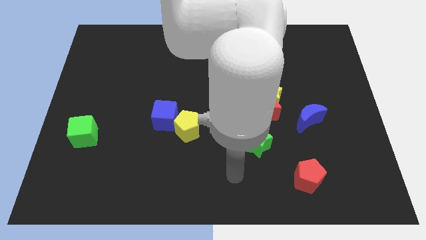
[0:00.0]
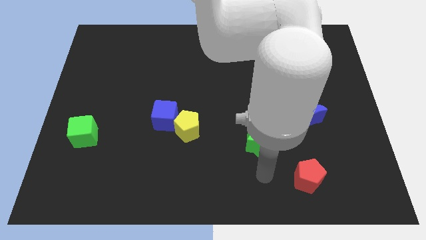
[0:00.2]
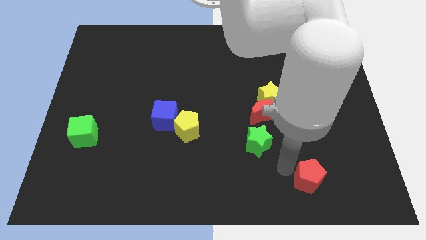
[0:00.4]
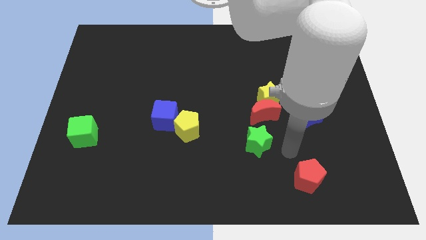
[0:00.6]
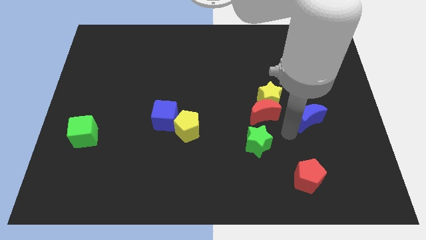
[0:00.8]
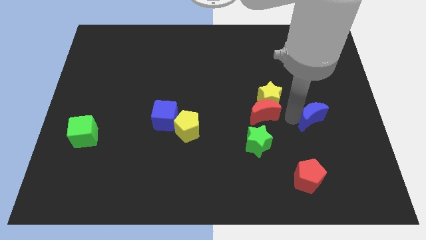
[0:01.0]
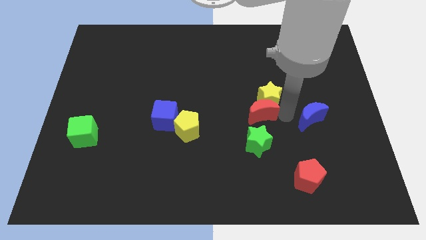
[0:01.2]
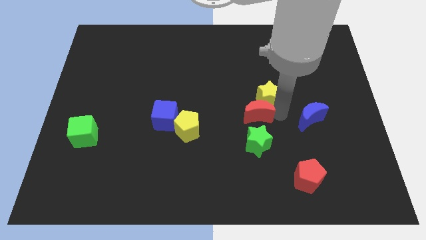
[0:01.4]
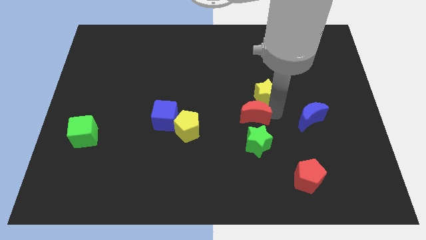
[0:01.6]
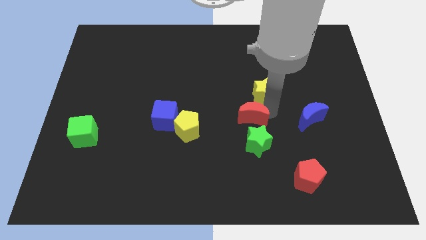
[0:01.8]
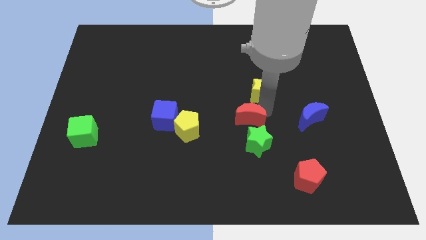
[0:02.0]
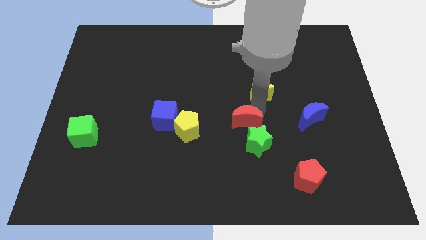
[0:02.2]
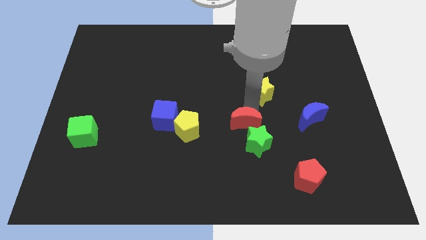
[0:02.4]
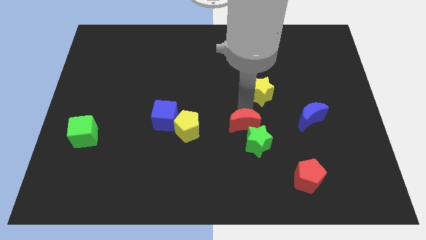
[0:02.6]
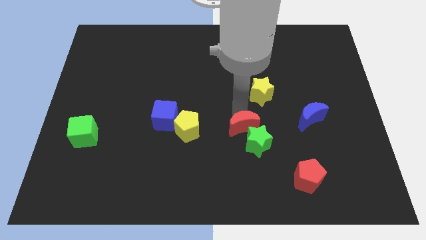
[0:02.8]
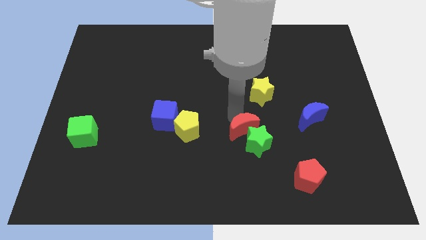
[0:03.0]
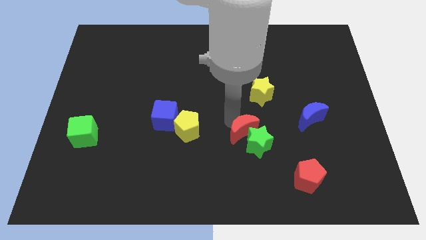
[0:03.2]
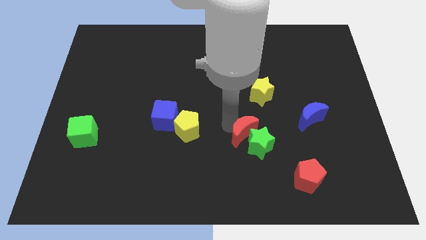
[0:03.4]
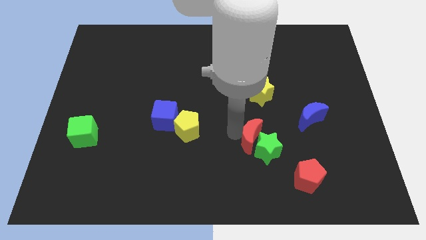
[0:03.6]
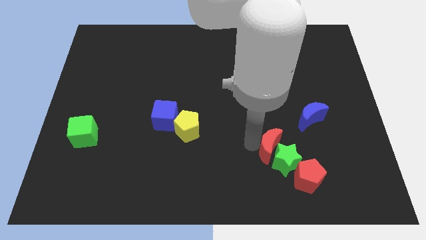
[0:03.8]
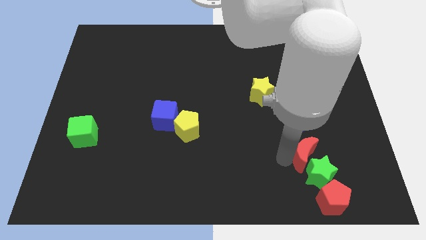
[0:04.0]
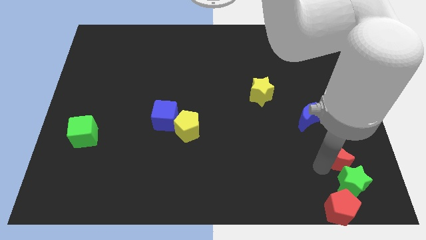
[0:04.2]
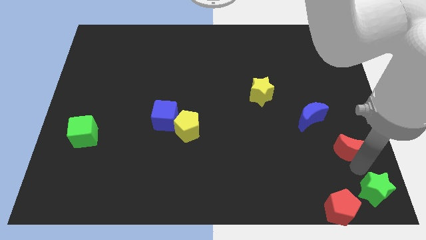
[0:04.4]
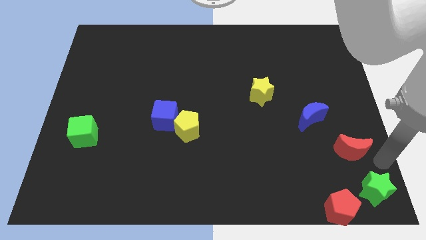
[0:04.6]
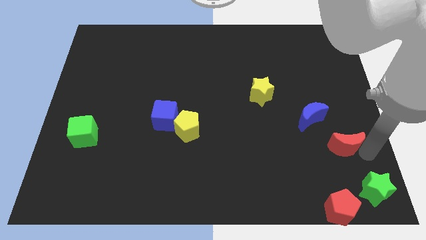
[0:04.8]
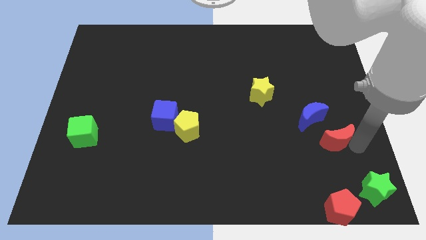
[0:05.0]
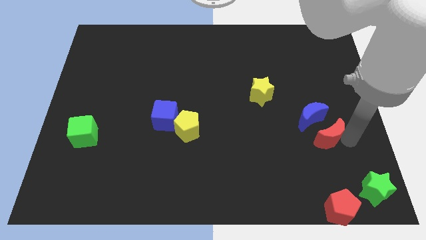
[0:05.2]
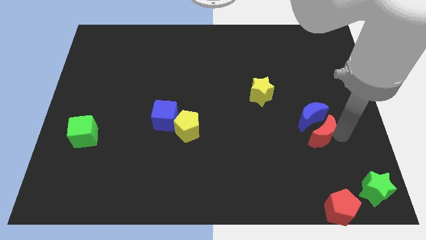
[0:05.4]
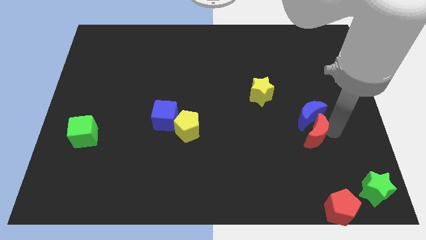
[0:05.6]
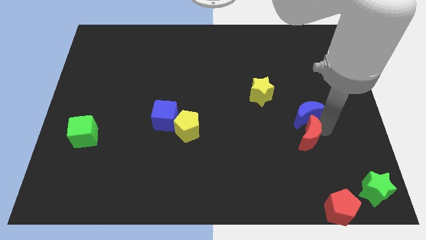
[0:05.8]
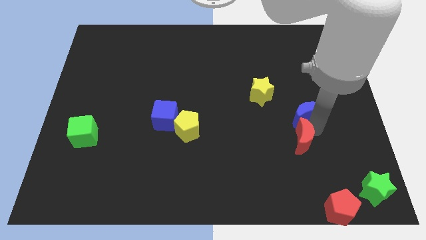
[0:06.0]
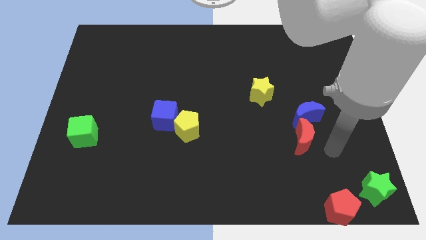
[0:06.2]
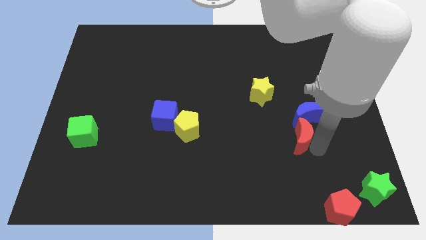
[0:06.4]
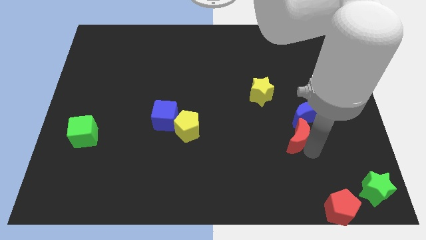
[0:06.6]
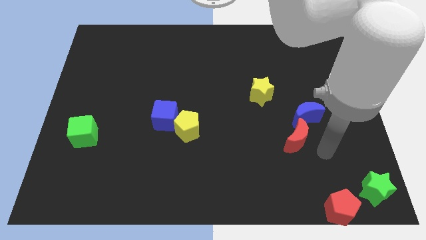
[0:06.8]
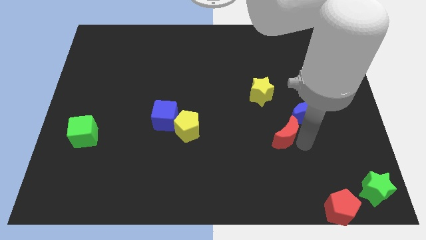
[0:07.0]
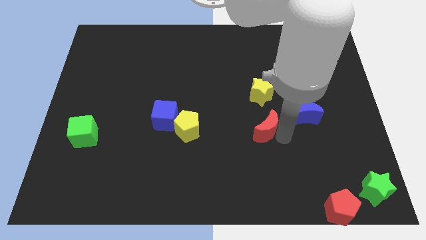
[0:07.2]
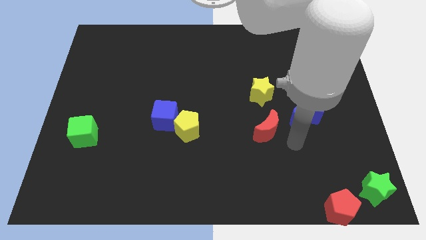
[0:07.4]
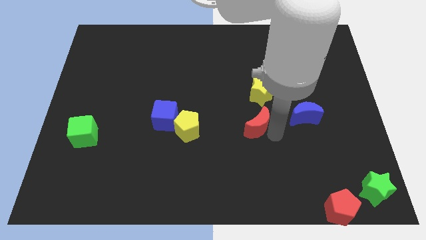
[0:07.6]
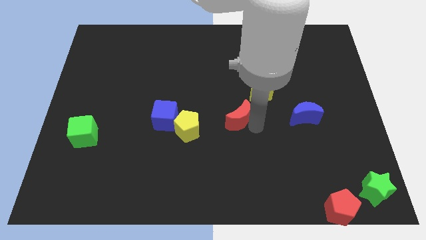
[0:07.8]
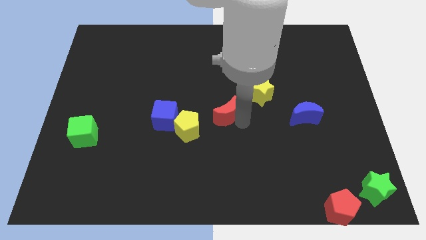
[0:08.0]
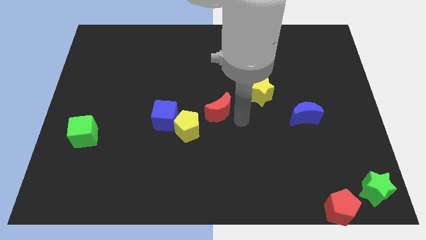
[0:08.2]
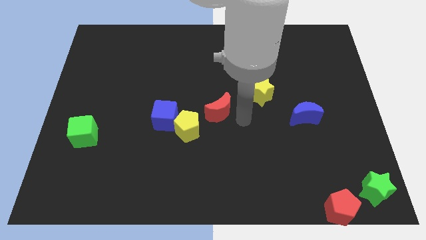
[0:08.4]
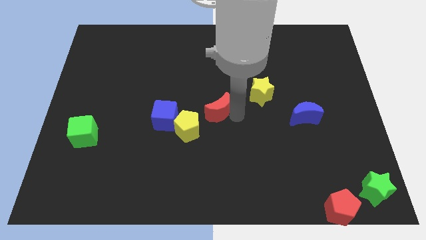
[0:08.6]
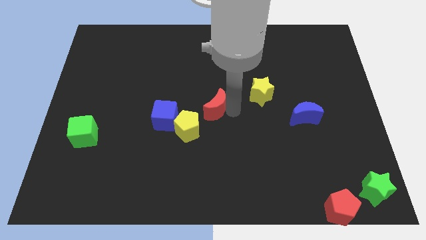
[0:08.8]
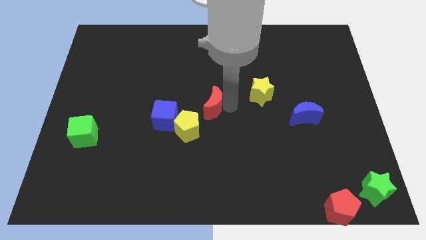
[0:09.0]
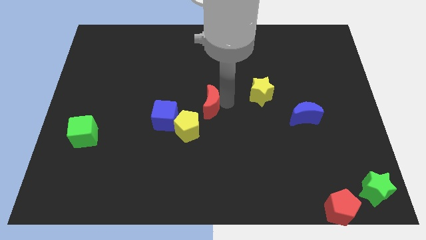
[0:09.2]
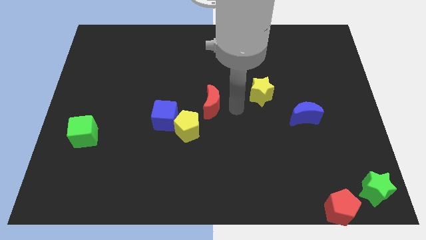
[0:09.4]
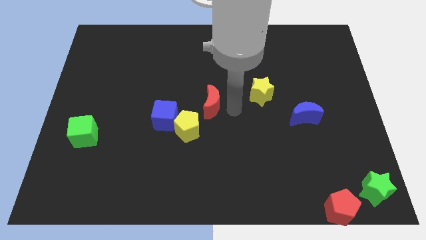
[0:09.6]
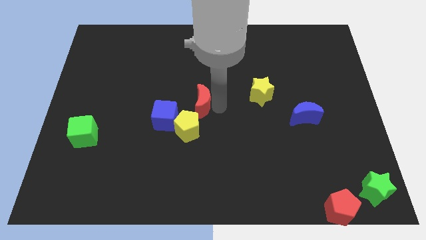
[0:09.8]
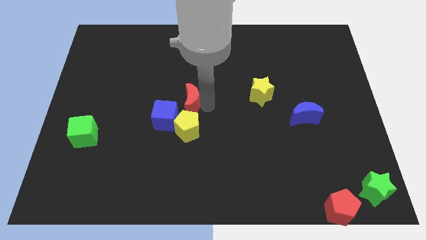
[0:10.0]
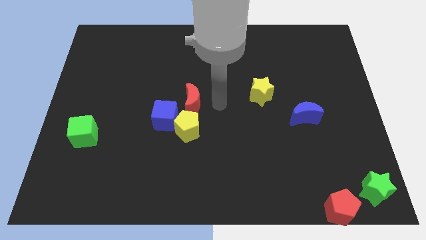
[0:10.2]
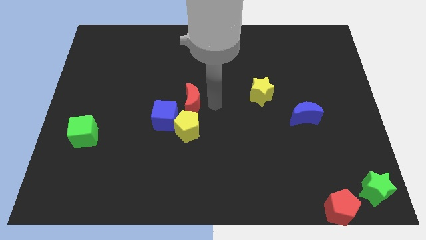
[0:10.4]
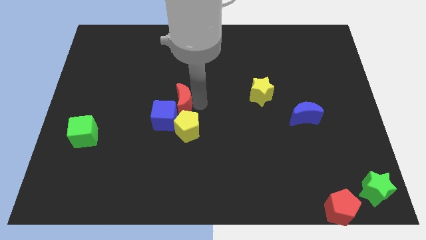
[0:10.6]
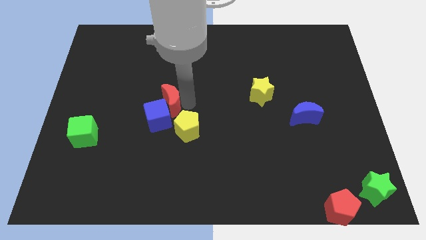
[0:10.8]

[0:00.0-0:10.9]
move the red moon to the left

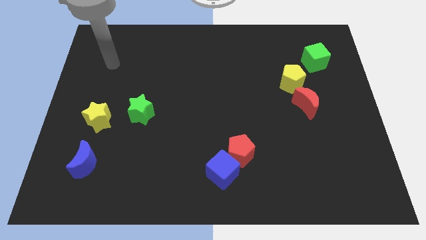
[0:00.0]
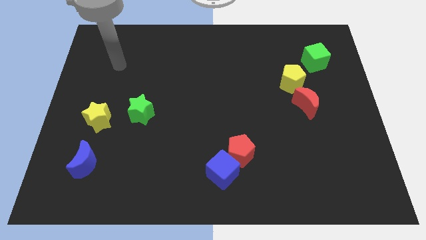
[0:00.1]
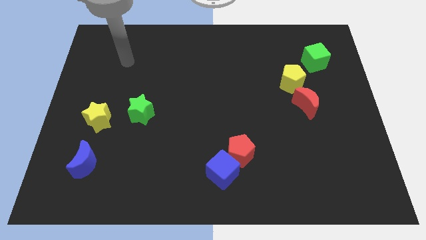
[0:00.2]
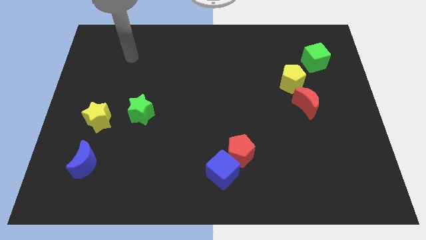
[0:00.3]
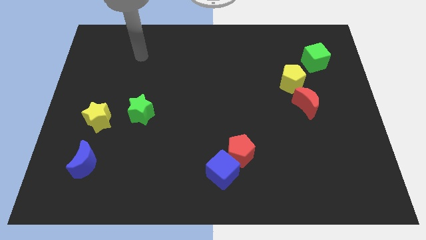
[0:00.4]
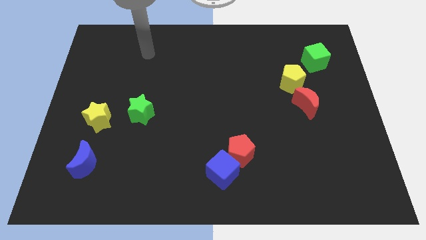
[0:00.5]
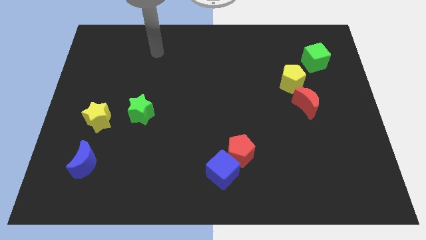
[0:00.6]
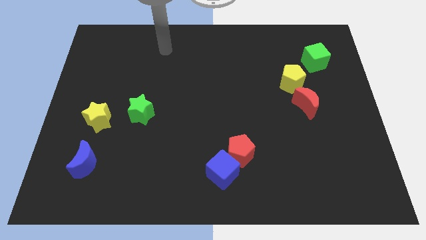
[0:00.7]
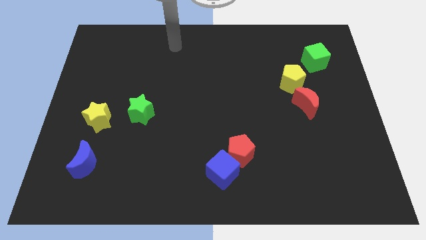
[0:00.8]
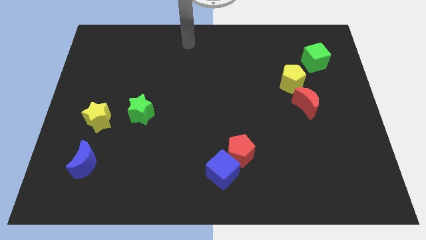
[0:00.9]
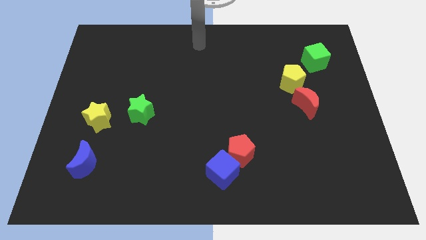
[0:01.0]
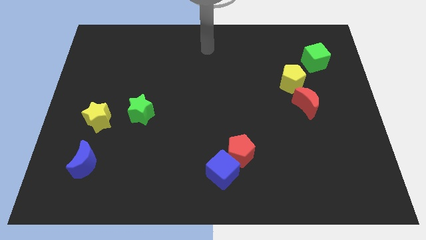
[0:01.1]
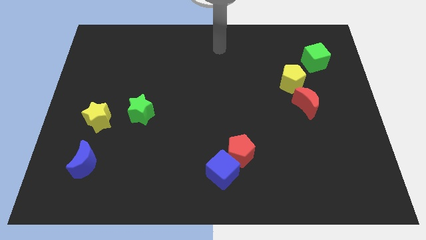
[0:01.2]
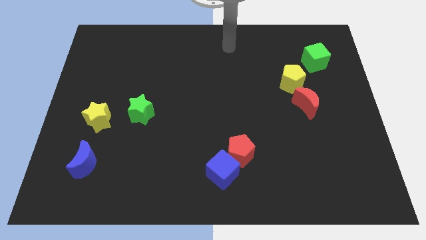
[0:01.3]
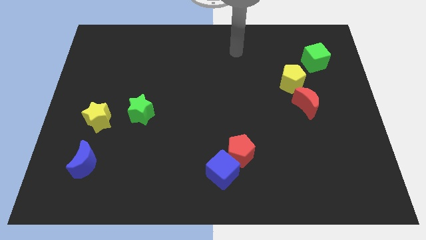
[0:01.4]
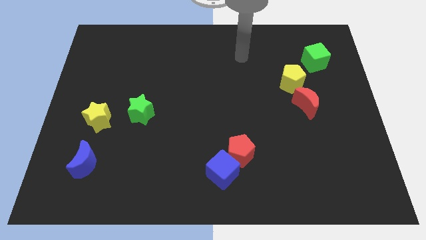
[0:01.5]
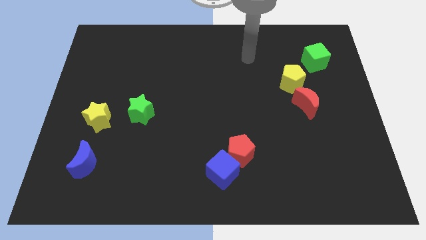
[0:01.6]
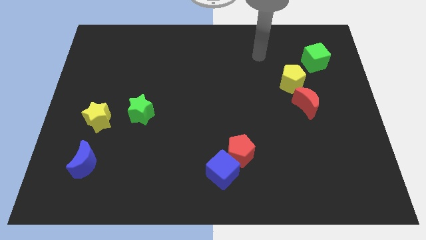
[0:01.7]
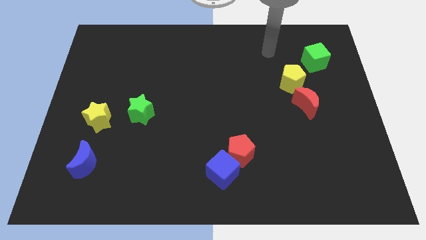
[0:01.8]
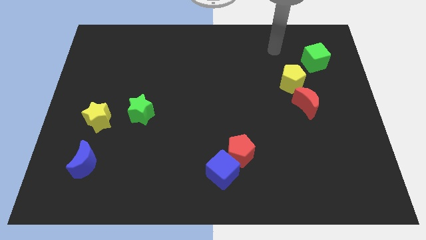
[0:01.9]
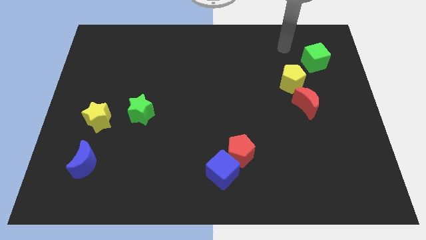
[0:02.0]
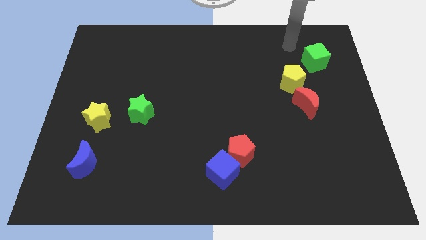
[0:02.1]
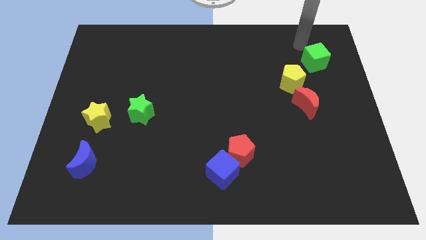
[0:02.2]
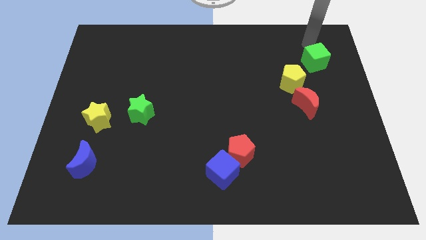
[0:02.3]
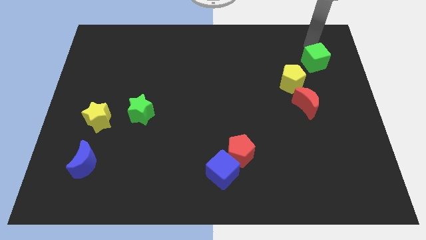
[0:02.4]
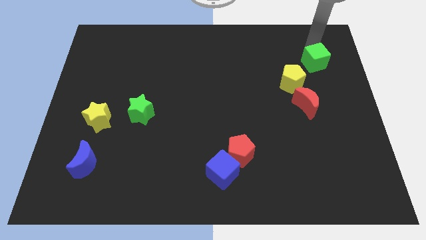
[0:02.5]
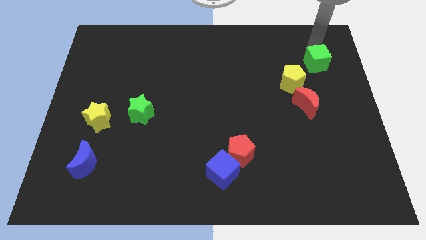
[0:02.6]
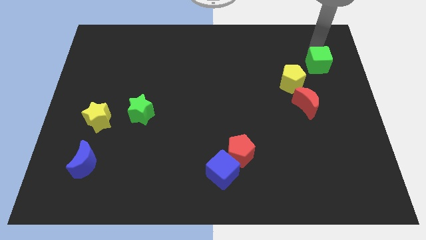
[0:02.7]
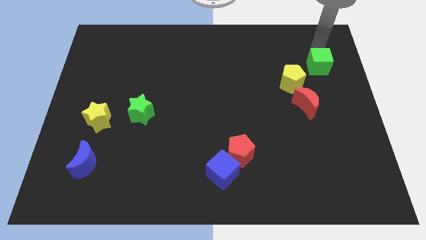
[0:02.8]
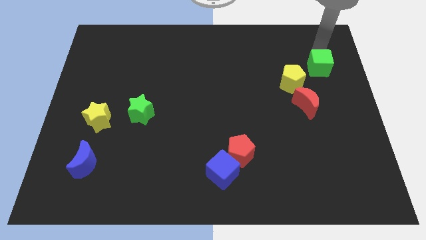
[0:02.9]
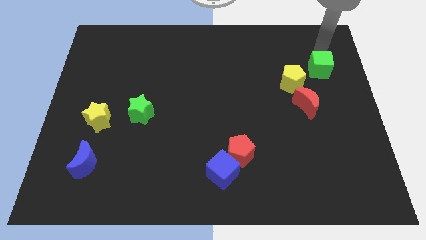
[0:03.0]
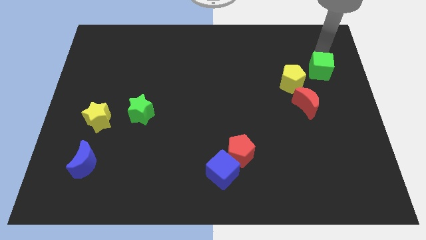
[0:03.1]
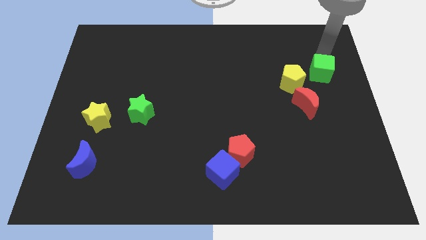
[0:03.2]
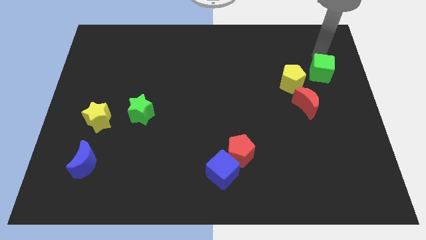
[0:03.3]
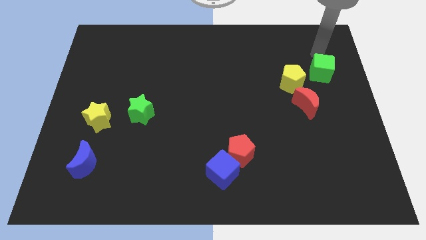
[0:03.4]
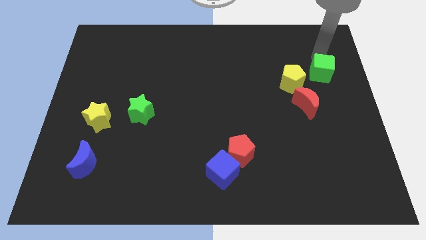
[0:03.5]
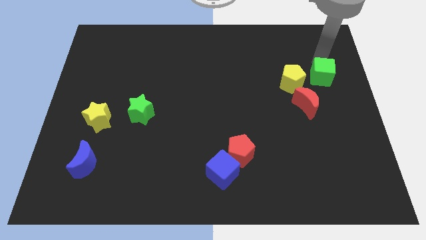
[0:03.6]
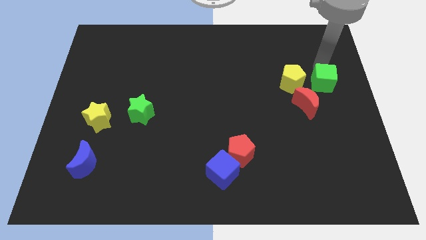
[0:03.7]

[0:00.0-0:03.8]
slightly push the green cube downwards
